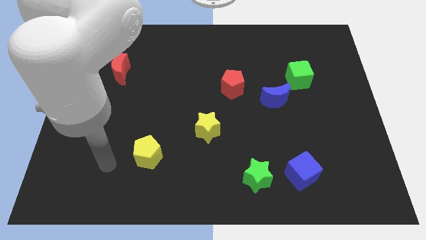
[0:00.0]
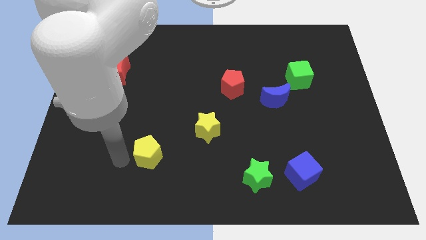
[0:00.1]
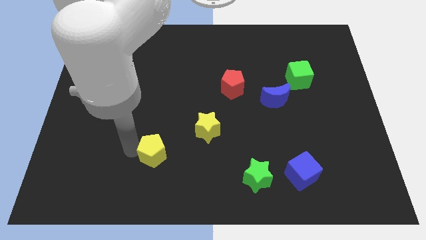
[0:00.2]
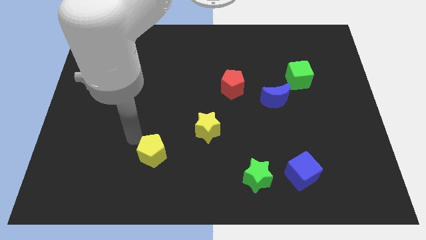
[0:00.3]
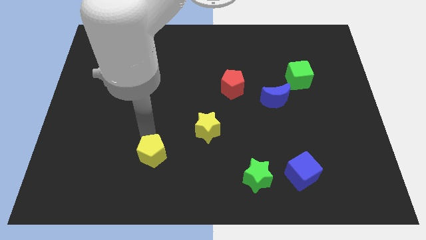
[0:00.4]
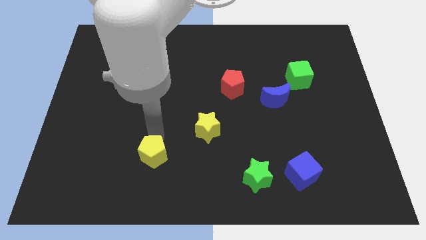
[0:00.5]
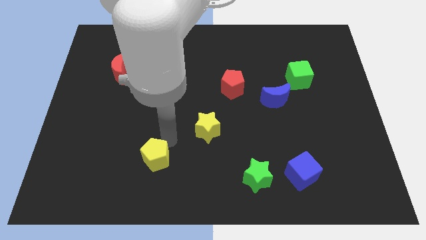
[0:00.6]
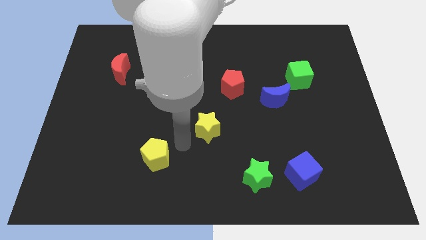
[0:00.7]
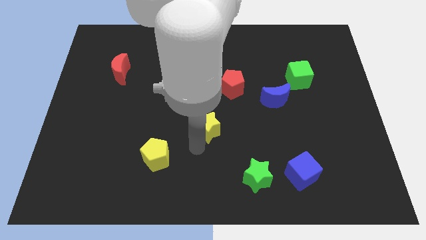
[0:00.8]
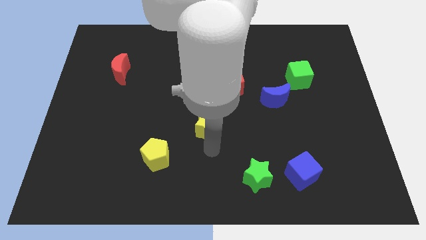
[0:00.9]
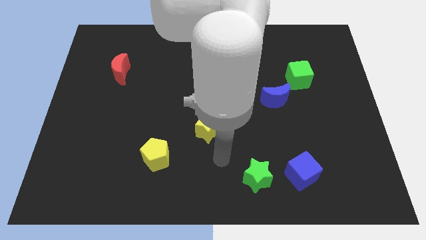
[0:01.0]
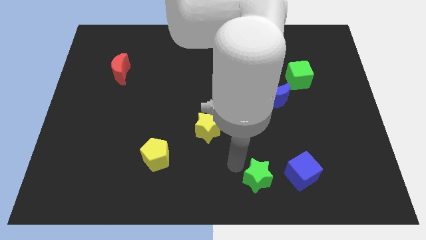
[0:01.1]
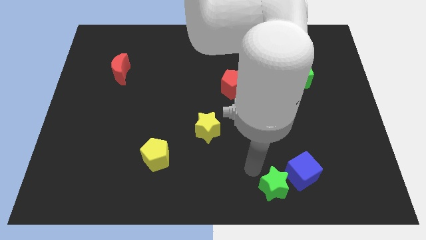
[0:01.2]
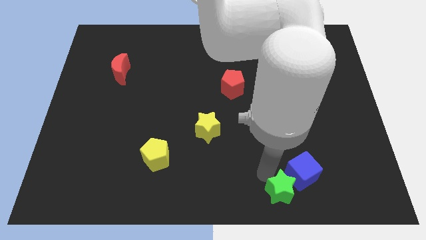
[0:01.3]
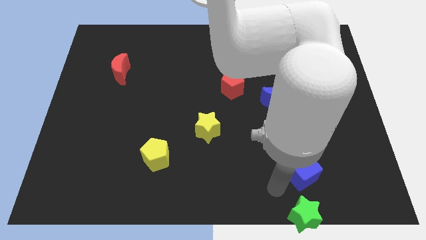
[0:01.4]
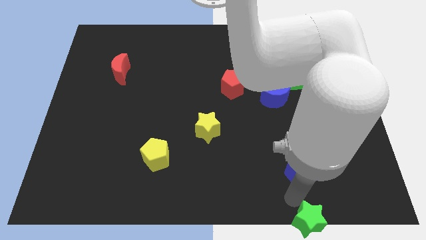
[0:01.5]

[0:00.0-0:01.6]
separate the blue cube from the green star

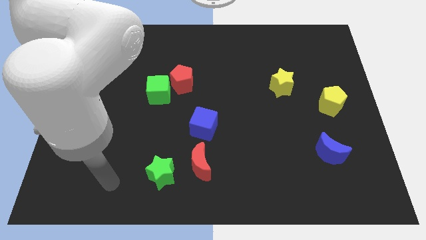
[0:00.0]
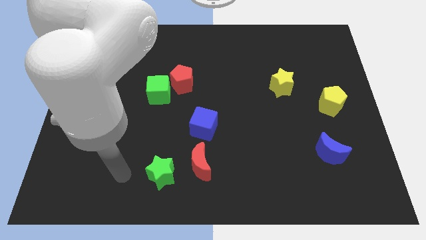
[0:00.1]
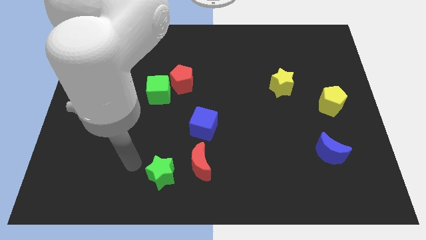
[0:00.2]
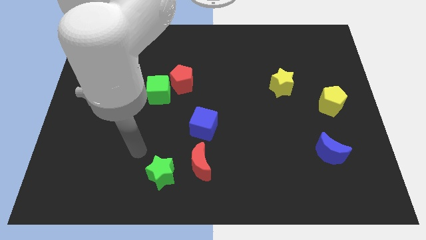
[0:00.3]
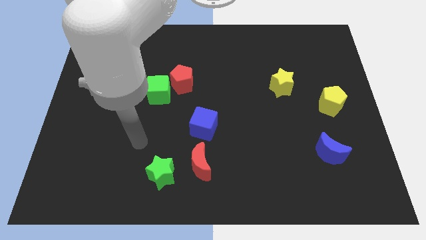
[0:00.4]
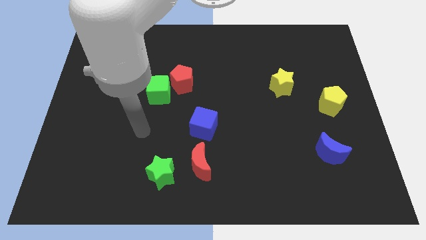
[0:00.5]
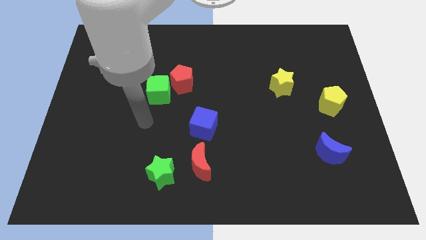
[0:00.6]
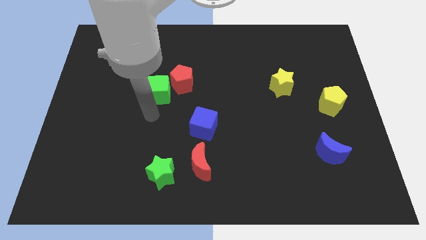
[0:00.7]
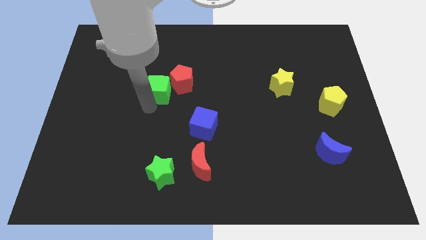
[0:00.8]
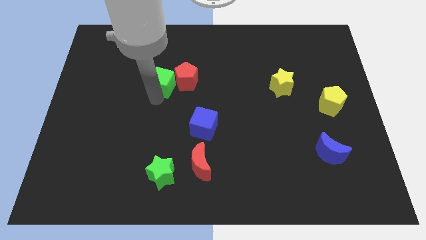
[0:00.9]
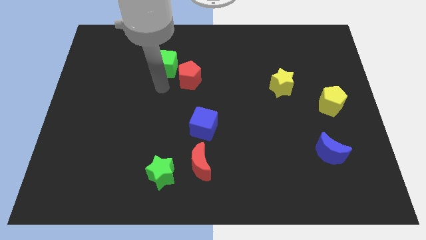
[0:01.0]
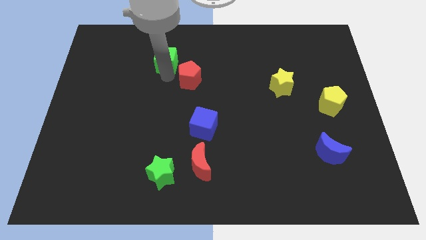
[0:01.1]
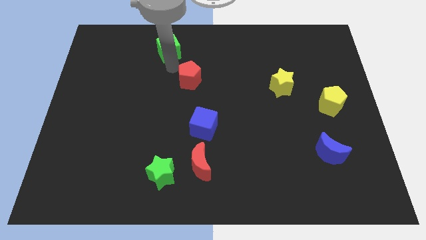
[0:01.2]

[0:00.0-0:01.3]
move the red pentagon away from the green cube

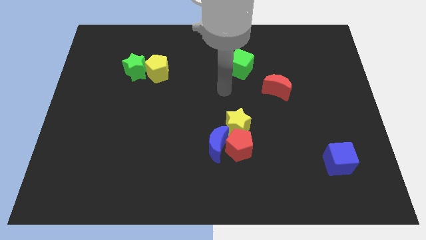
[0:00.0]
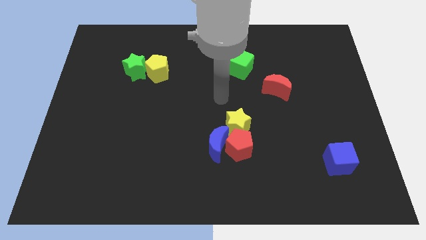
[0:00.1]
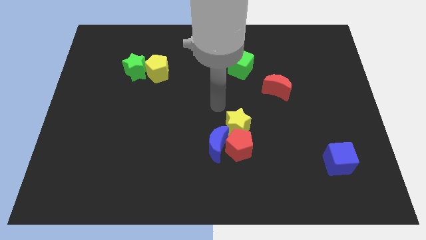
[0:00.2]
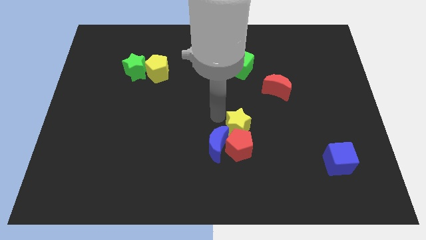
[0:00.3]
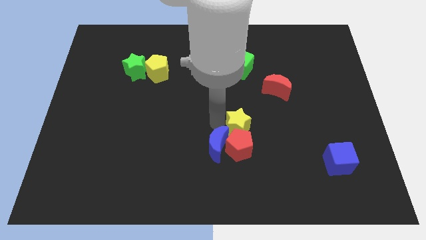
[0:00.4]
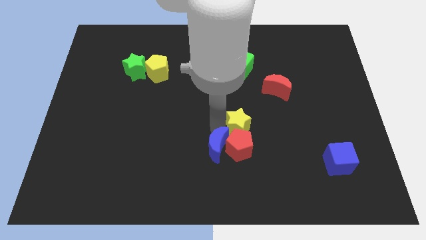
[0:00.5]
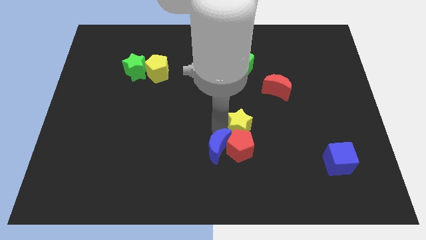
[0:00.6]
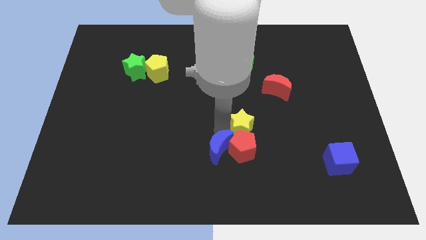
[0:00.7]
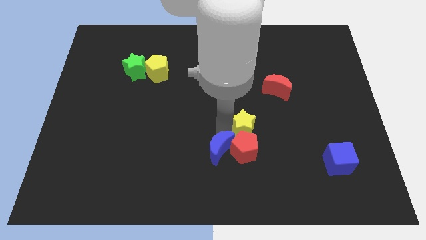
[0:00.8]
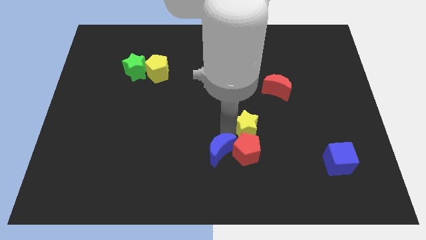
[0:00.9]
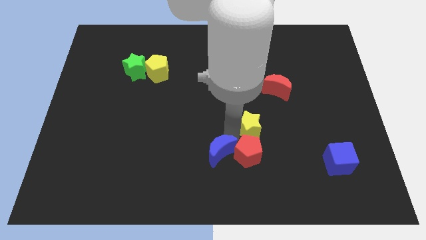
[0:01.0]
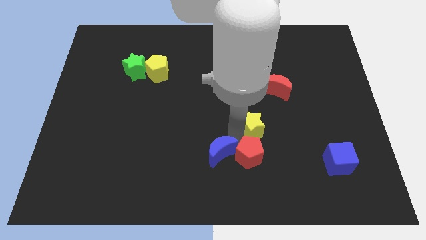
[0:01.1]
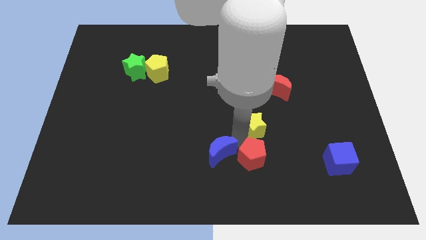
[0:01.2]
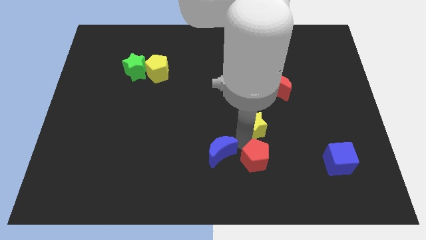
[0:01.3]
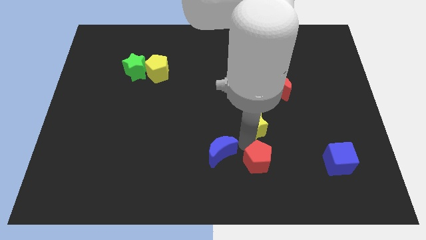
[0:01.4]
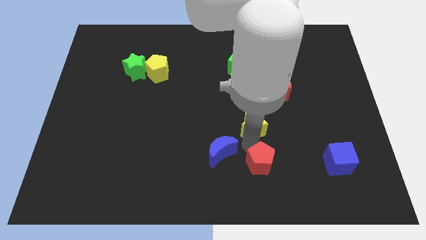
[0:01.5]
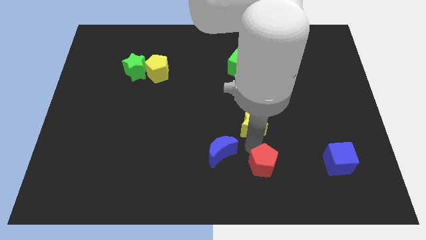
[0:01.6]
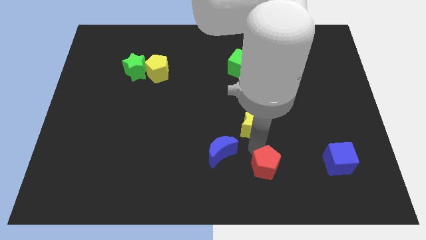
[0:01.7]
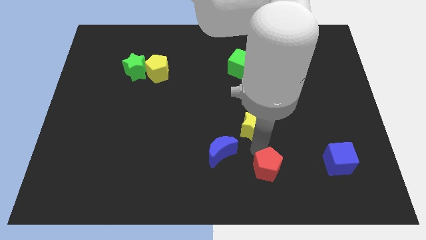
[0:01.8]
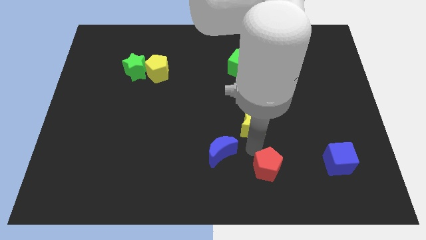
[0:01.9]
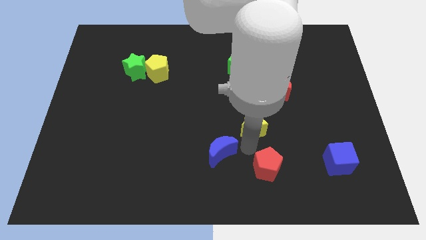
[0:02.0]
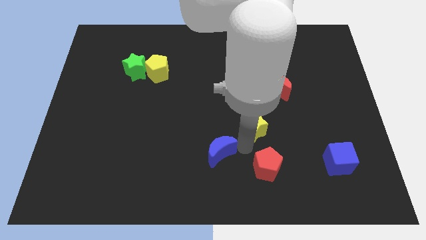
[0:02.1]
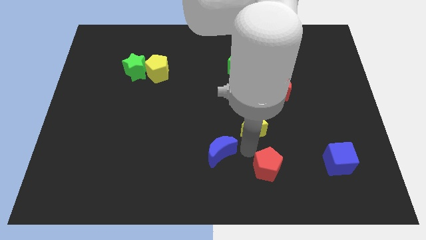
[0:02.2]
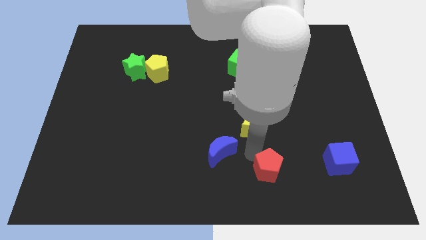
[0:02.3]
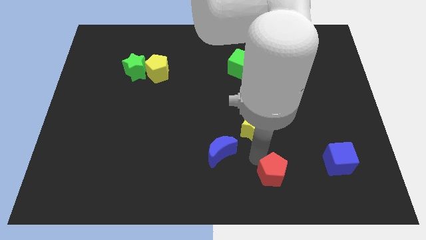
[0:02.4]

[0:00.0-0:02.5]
pull the red pentagon apart from the blue moon and yellow star

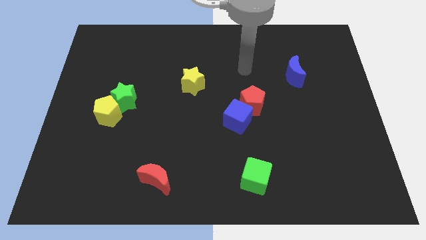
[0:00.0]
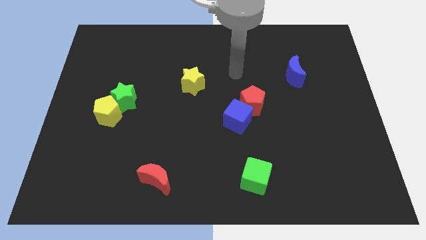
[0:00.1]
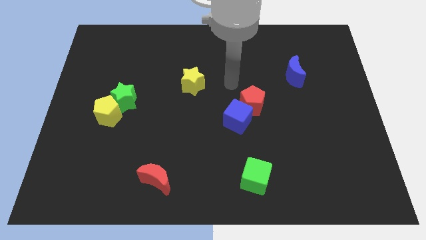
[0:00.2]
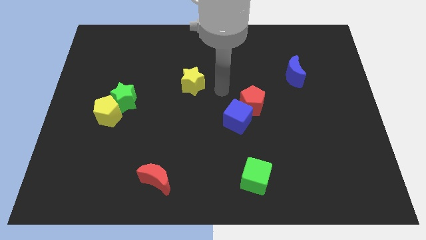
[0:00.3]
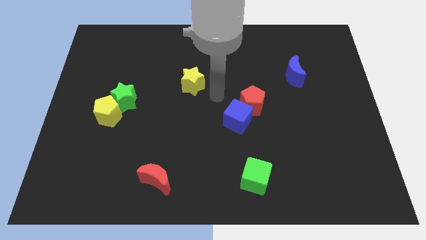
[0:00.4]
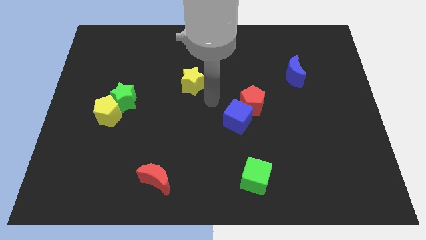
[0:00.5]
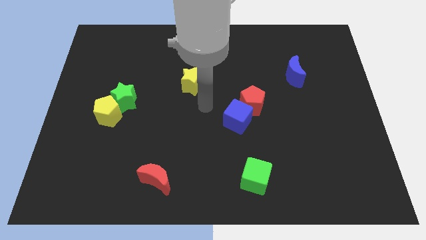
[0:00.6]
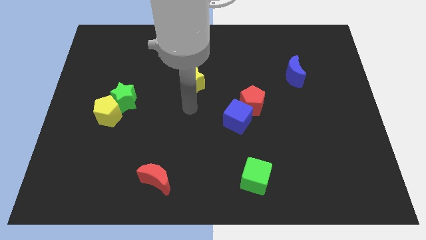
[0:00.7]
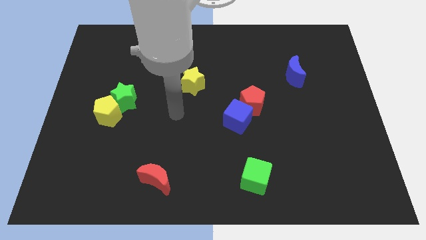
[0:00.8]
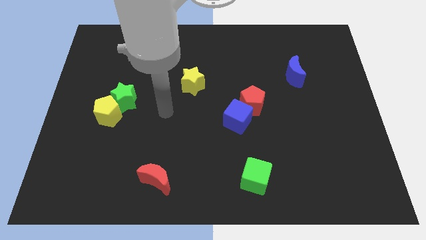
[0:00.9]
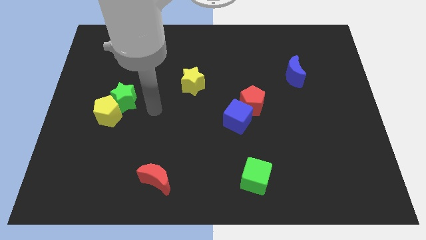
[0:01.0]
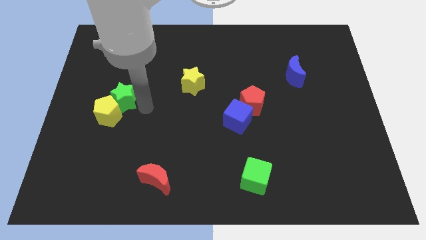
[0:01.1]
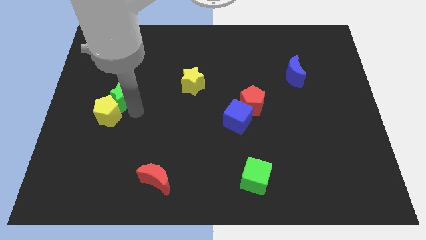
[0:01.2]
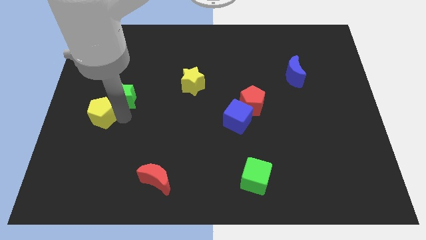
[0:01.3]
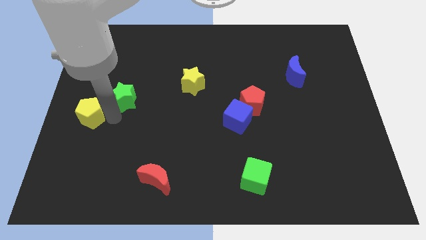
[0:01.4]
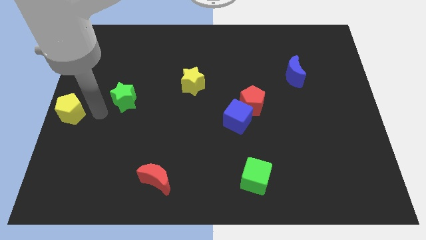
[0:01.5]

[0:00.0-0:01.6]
pull the green star apart from the yellow pentagon

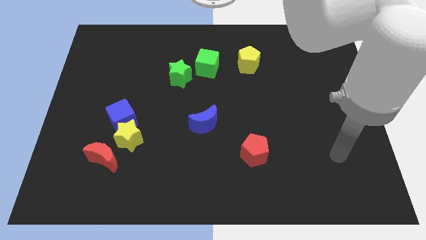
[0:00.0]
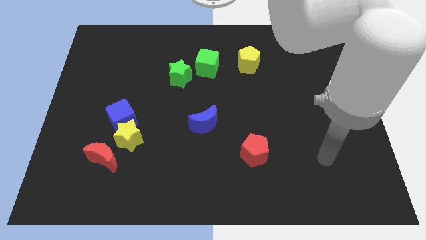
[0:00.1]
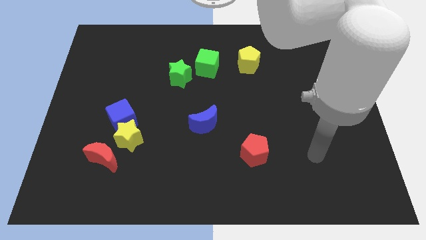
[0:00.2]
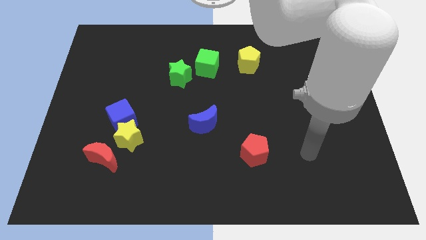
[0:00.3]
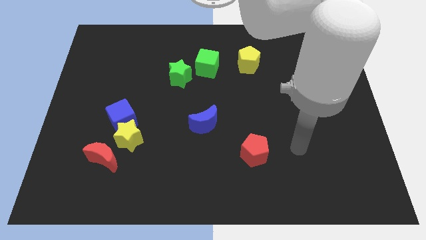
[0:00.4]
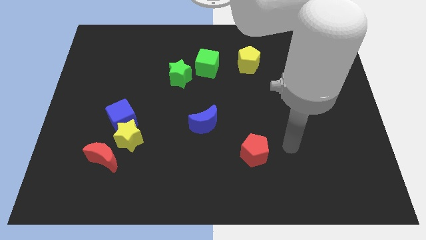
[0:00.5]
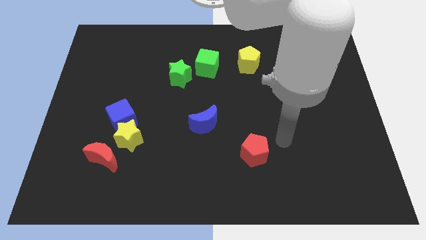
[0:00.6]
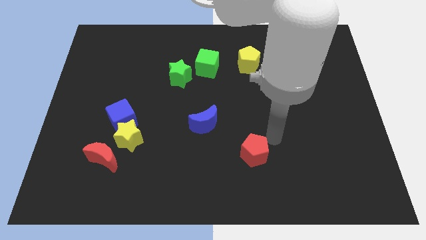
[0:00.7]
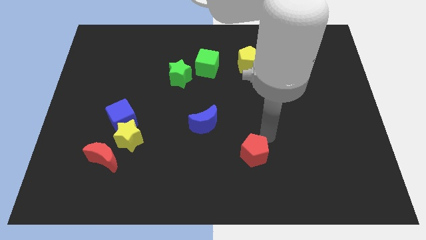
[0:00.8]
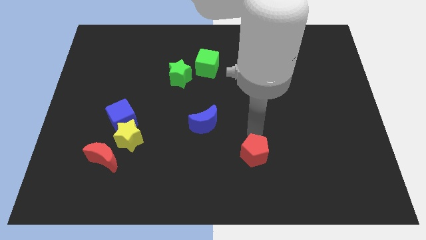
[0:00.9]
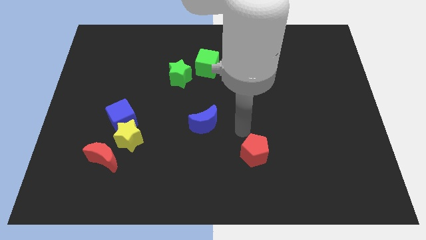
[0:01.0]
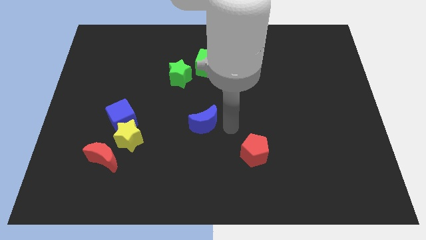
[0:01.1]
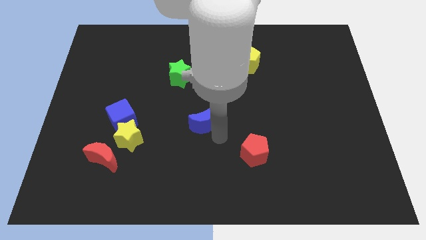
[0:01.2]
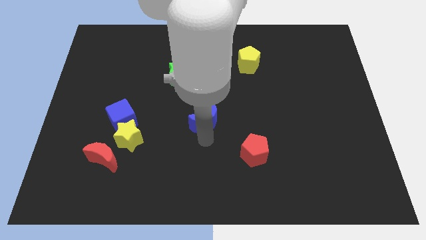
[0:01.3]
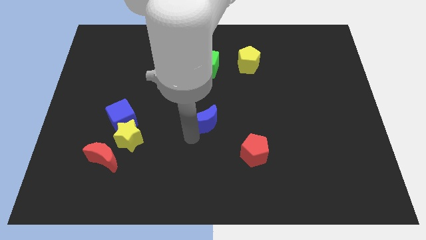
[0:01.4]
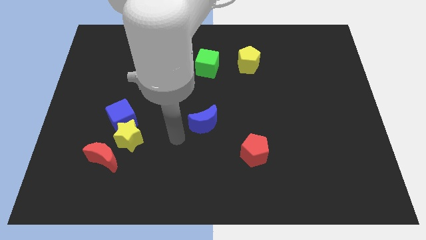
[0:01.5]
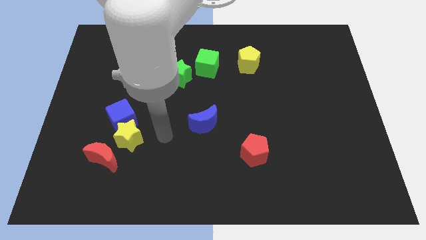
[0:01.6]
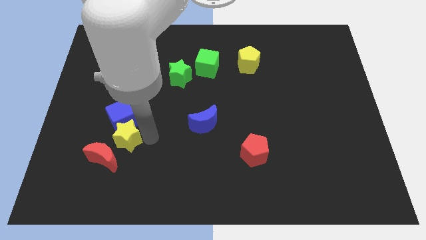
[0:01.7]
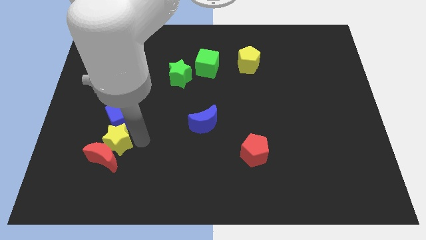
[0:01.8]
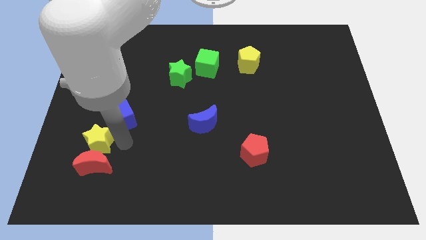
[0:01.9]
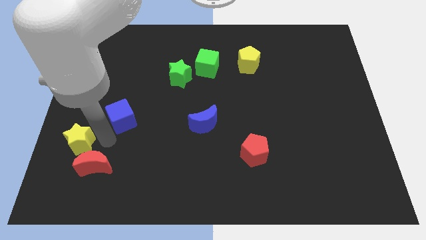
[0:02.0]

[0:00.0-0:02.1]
pull the blue cube apart from the yellow star

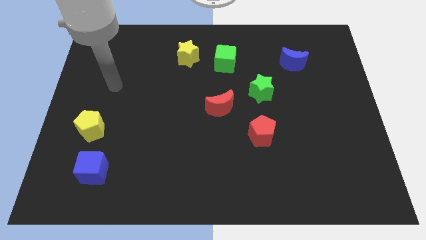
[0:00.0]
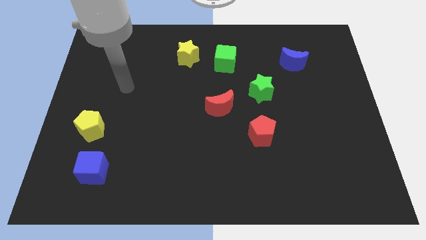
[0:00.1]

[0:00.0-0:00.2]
separate the green cube from the yellow star
